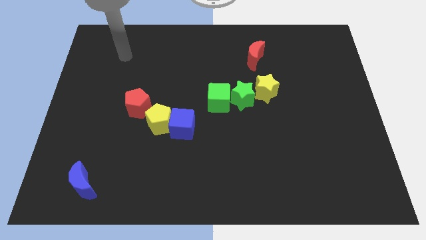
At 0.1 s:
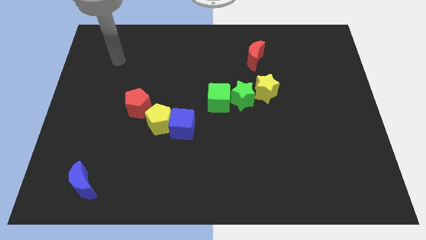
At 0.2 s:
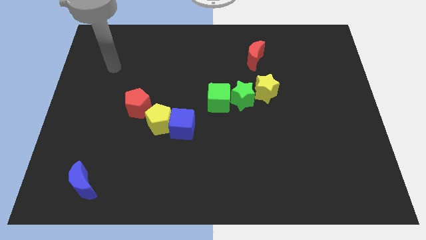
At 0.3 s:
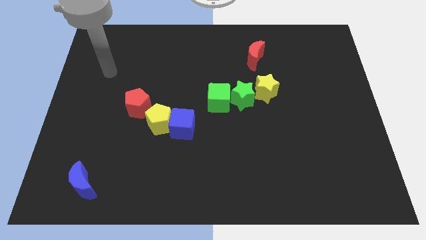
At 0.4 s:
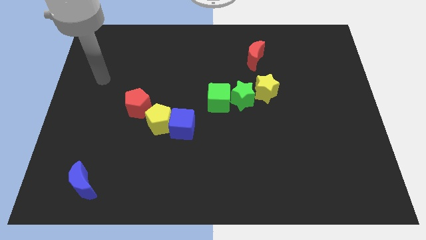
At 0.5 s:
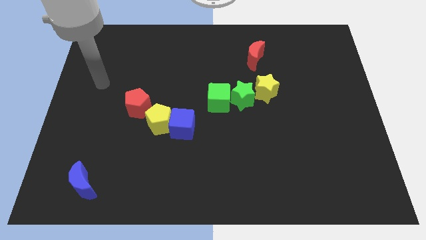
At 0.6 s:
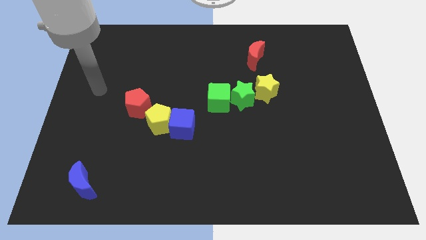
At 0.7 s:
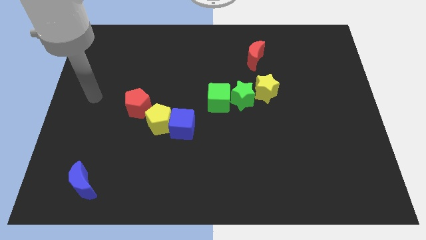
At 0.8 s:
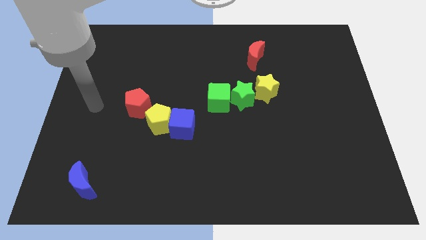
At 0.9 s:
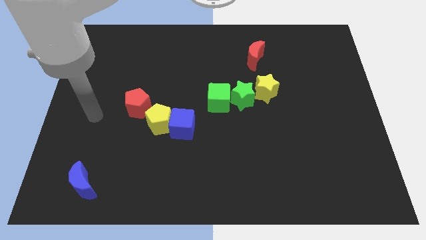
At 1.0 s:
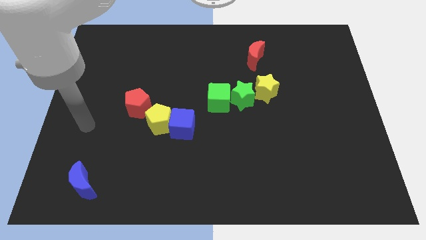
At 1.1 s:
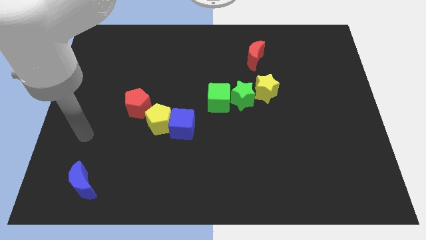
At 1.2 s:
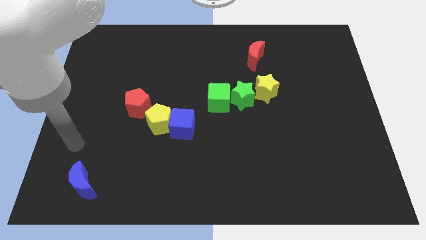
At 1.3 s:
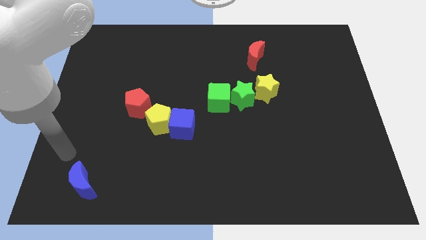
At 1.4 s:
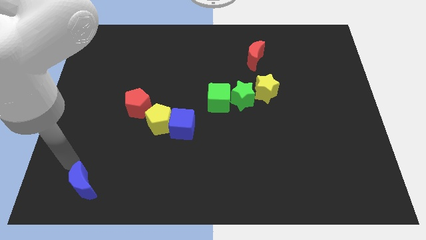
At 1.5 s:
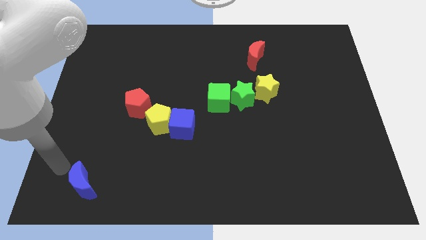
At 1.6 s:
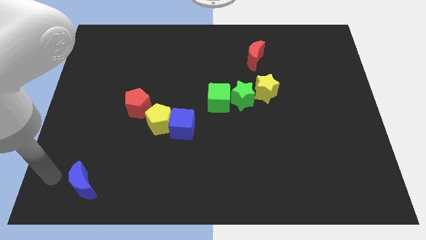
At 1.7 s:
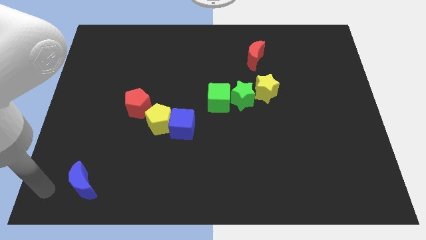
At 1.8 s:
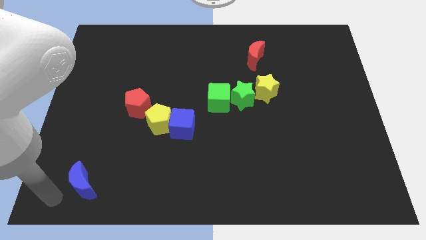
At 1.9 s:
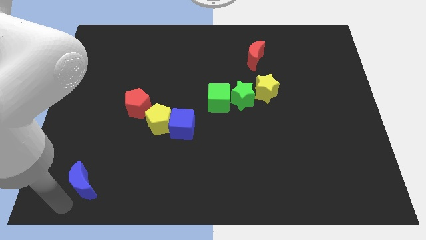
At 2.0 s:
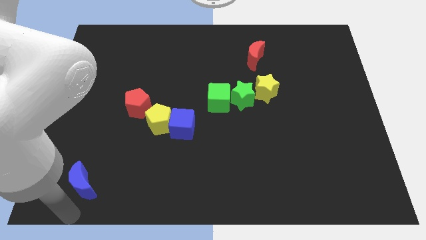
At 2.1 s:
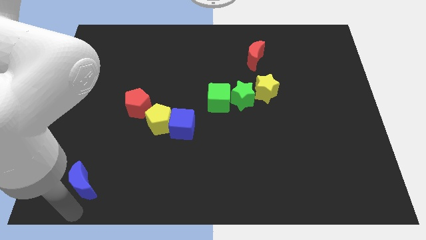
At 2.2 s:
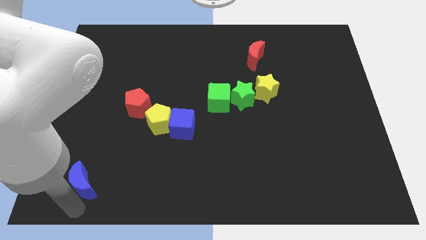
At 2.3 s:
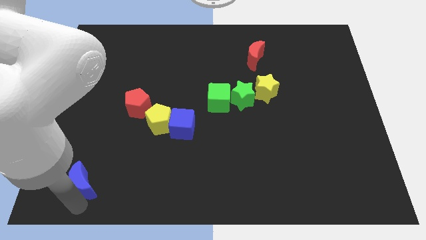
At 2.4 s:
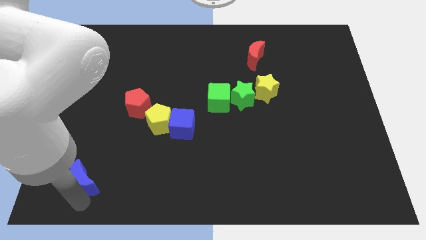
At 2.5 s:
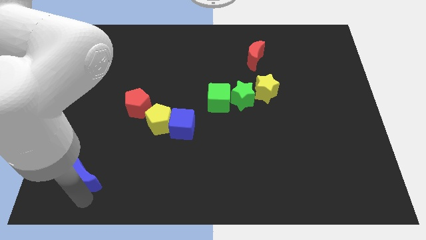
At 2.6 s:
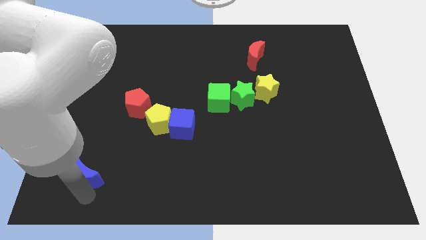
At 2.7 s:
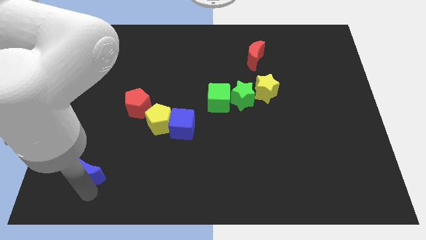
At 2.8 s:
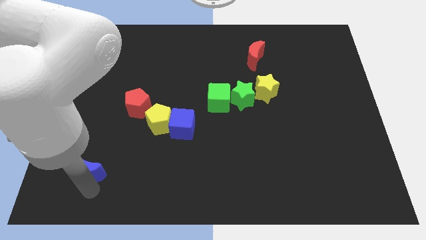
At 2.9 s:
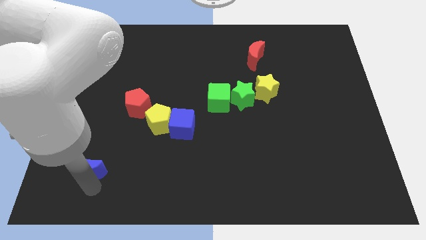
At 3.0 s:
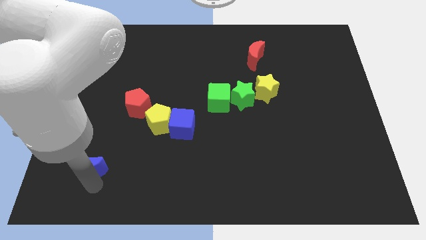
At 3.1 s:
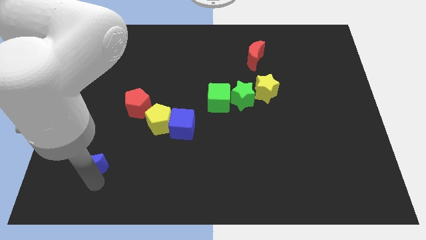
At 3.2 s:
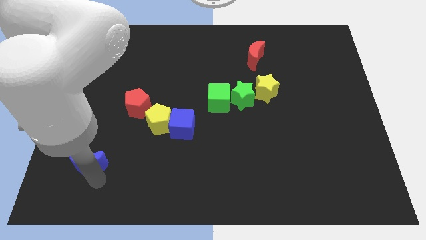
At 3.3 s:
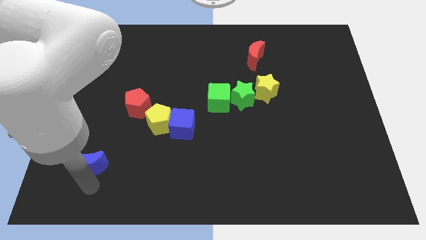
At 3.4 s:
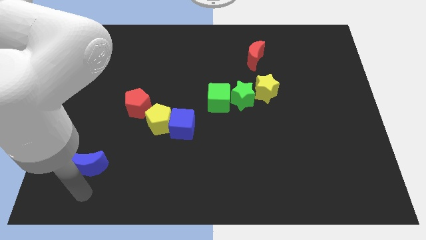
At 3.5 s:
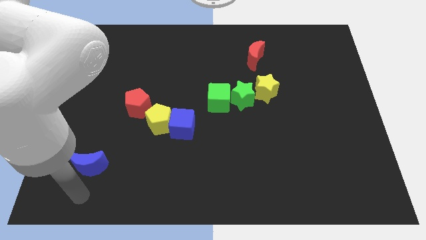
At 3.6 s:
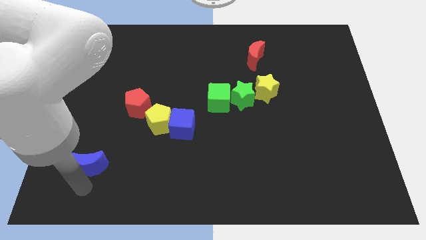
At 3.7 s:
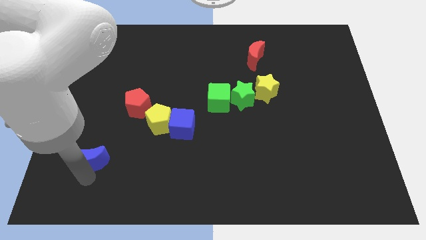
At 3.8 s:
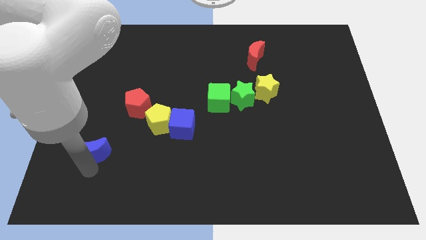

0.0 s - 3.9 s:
move the blue moon up somewhat

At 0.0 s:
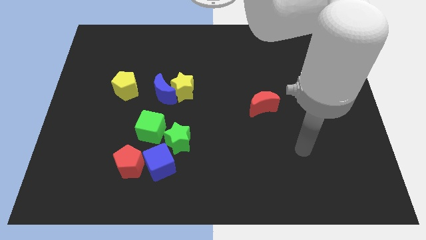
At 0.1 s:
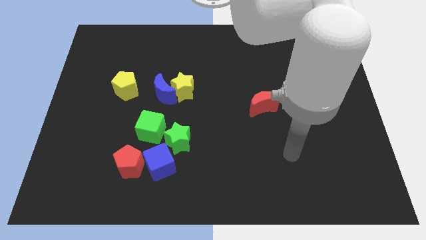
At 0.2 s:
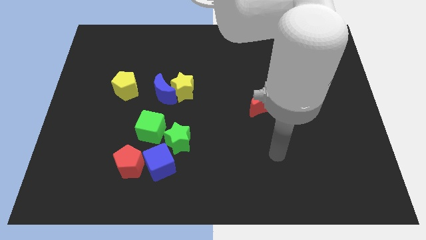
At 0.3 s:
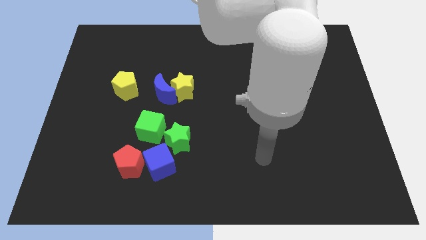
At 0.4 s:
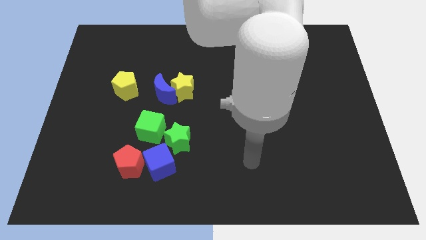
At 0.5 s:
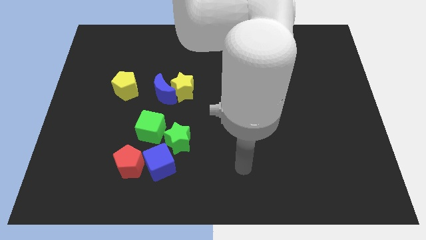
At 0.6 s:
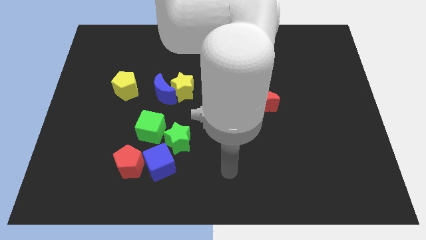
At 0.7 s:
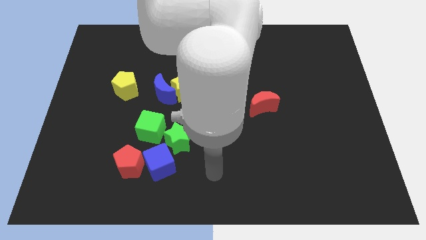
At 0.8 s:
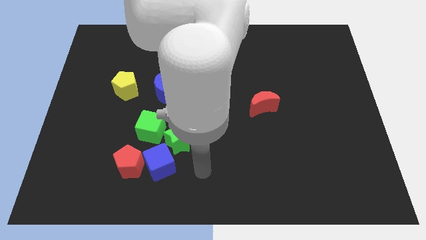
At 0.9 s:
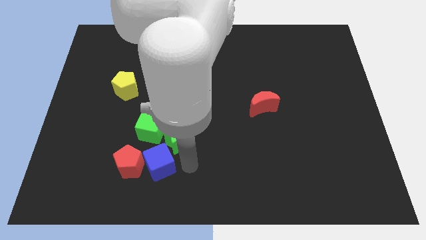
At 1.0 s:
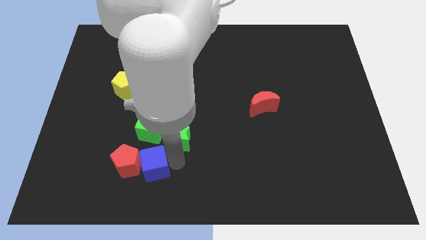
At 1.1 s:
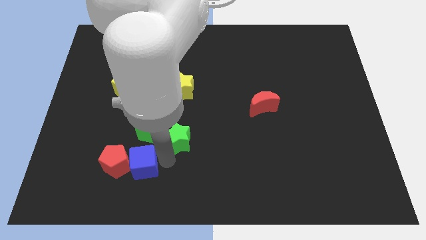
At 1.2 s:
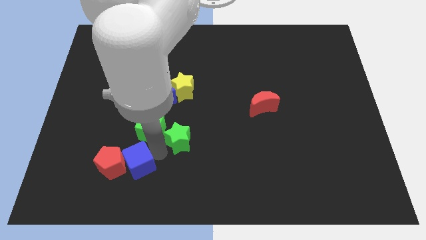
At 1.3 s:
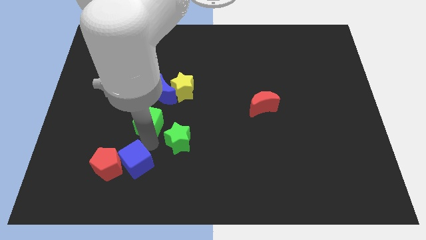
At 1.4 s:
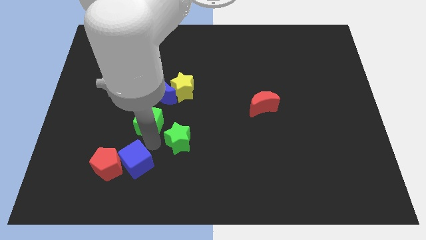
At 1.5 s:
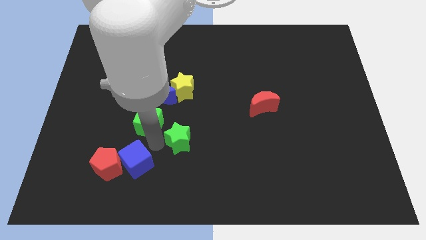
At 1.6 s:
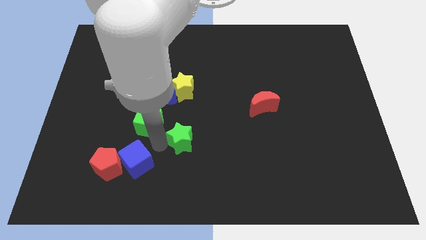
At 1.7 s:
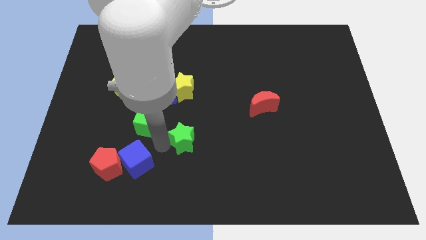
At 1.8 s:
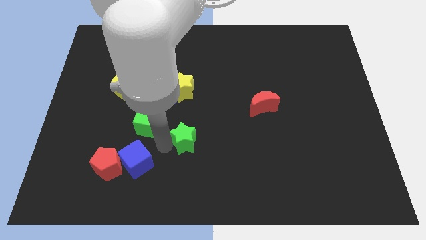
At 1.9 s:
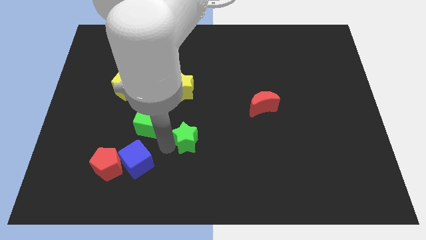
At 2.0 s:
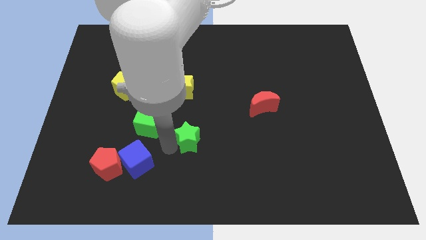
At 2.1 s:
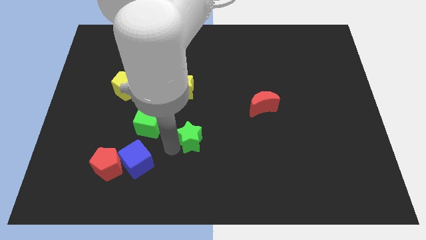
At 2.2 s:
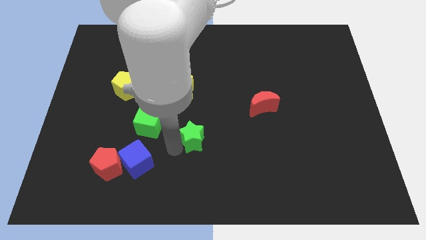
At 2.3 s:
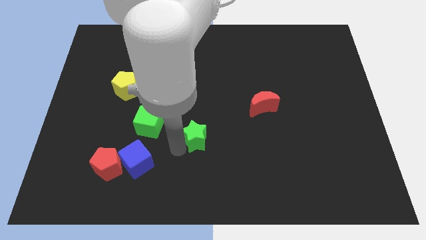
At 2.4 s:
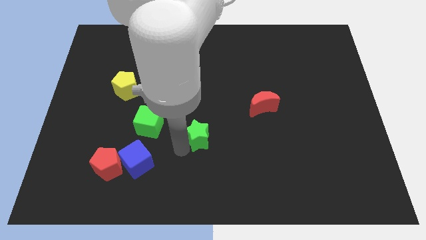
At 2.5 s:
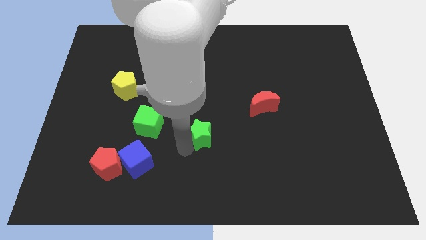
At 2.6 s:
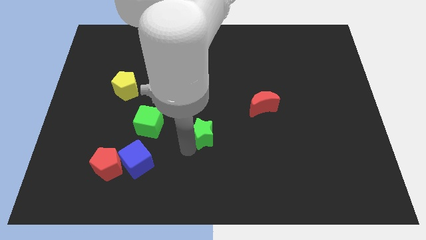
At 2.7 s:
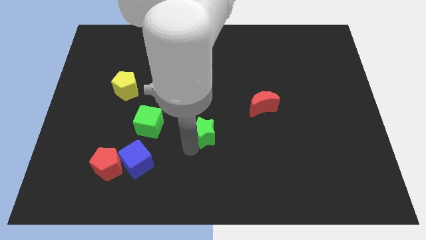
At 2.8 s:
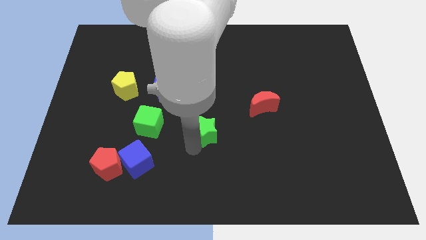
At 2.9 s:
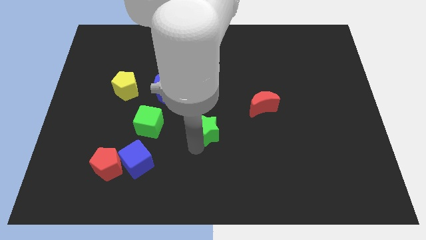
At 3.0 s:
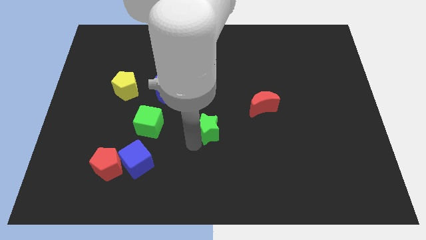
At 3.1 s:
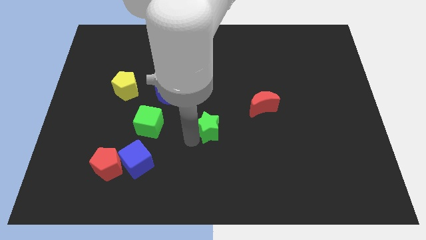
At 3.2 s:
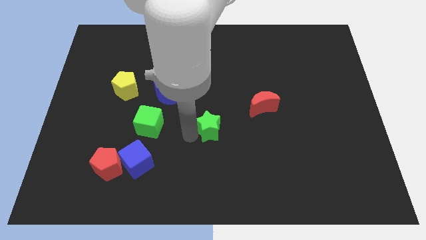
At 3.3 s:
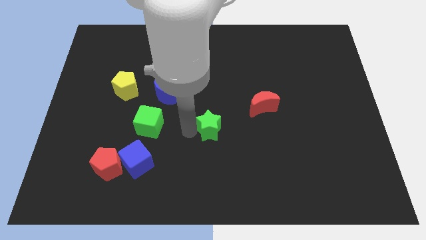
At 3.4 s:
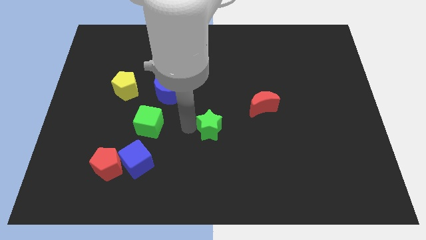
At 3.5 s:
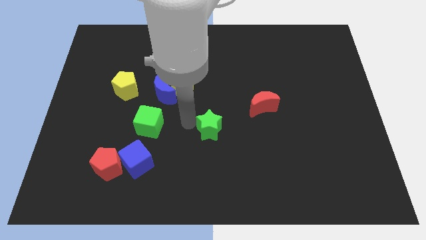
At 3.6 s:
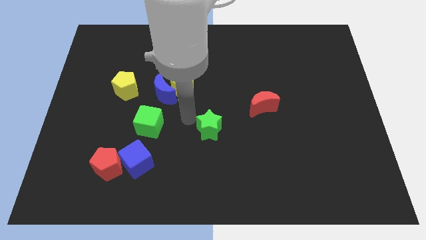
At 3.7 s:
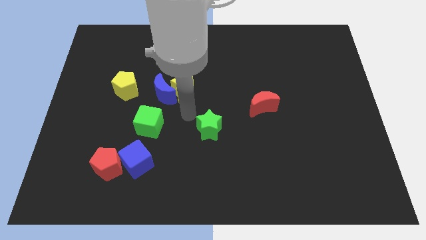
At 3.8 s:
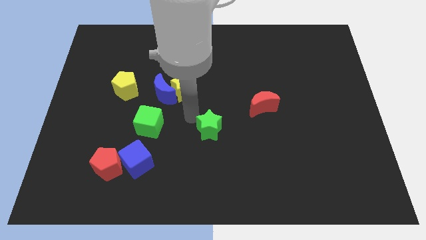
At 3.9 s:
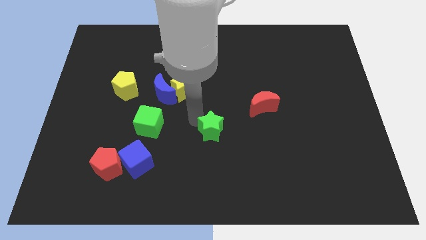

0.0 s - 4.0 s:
slide the green star right slightly

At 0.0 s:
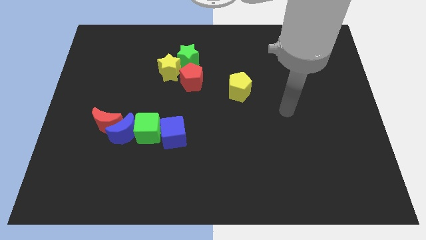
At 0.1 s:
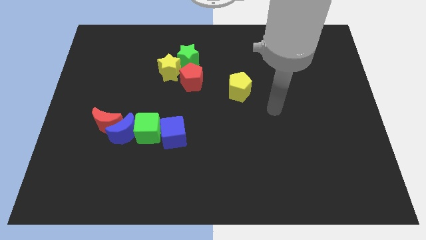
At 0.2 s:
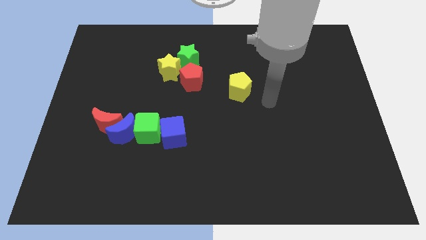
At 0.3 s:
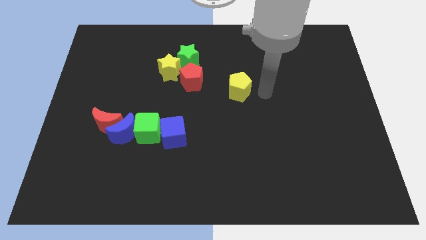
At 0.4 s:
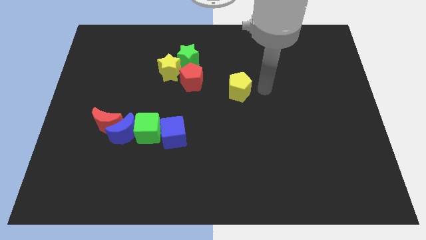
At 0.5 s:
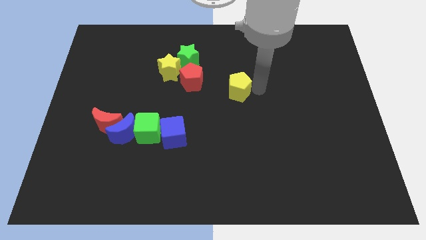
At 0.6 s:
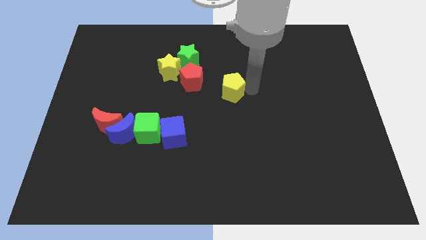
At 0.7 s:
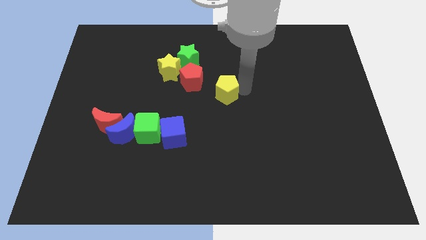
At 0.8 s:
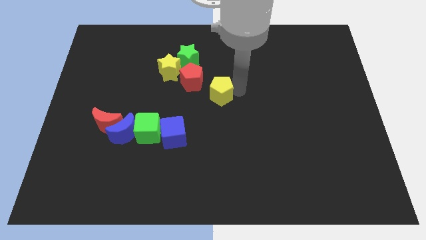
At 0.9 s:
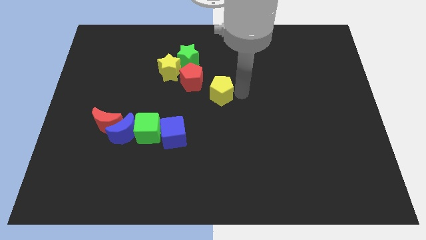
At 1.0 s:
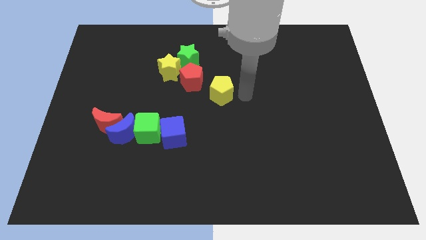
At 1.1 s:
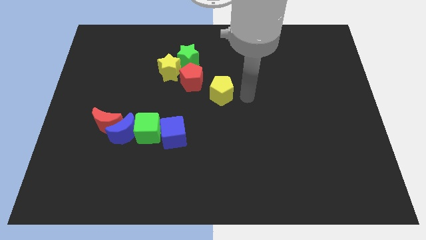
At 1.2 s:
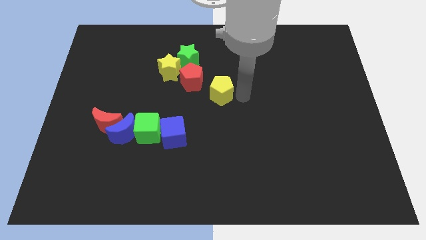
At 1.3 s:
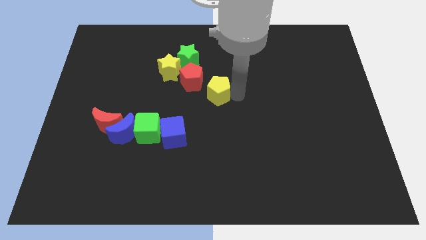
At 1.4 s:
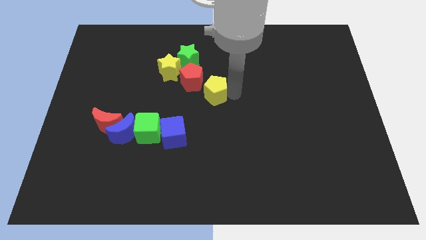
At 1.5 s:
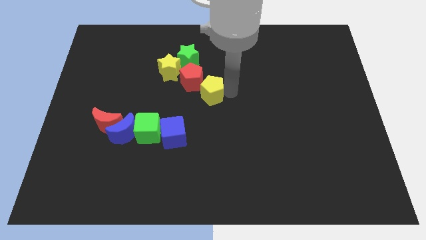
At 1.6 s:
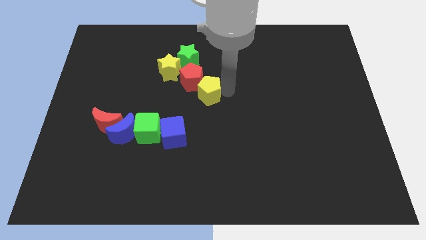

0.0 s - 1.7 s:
move the yellow pentagon a bit to the left
